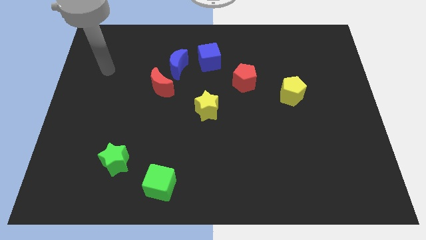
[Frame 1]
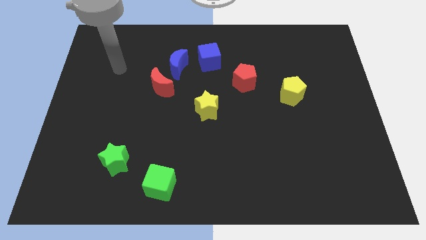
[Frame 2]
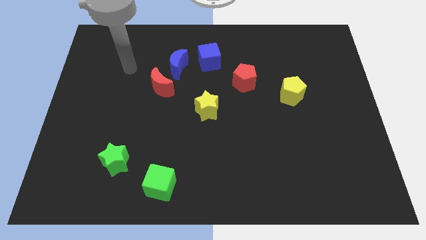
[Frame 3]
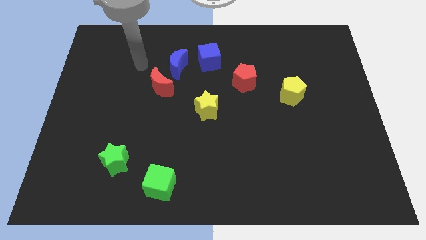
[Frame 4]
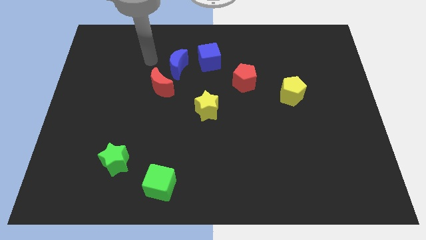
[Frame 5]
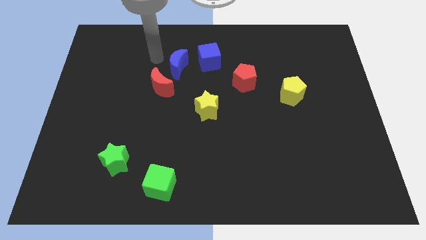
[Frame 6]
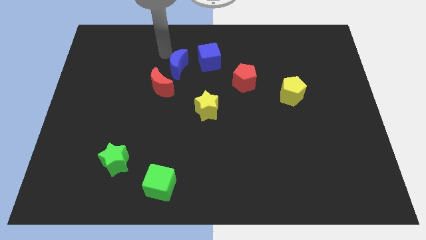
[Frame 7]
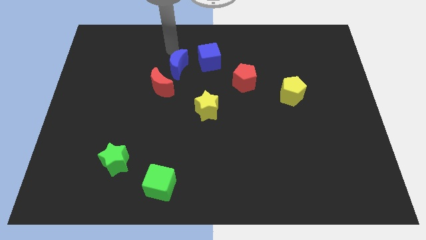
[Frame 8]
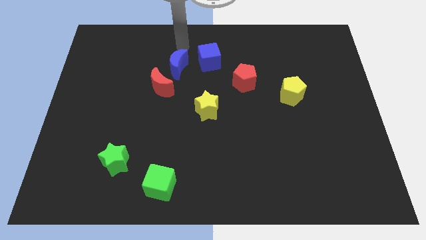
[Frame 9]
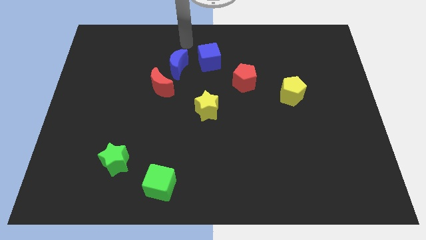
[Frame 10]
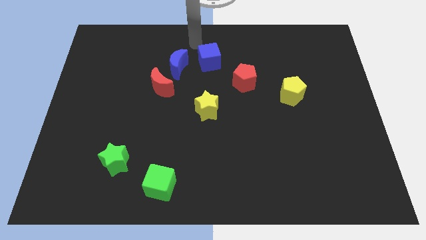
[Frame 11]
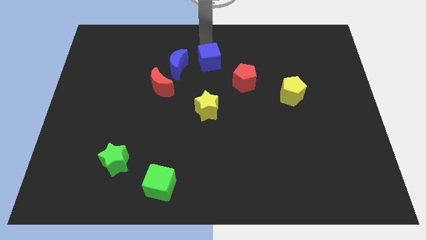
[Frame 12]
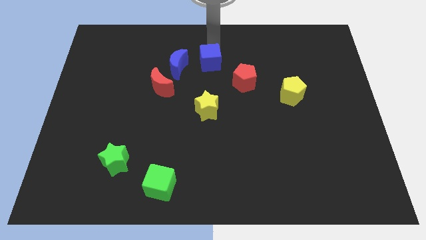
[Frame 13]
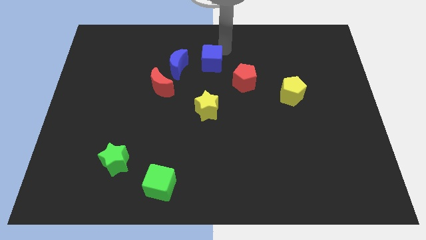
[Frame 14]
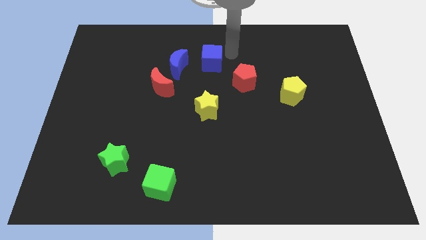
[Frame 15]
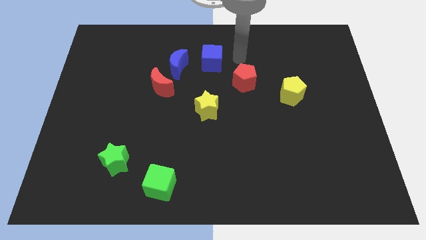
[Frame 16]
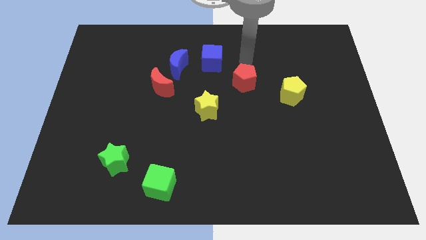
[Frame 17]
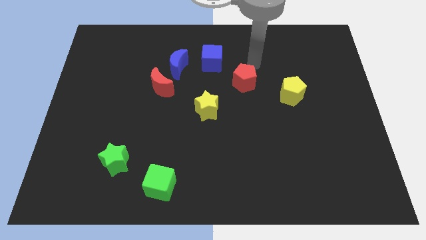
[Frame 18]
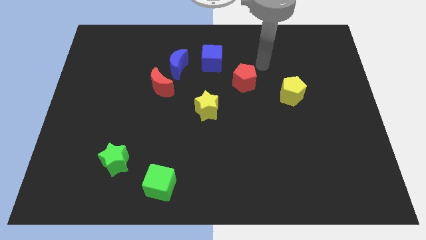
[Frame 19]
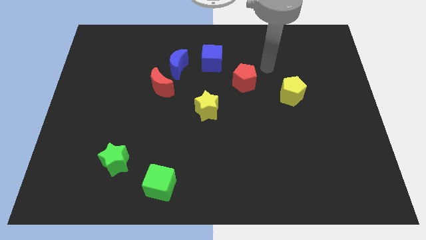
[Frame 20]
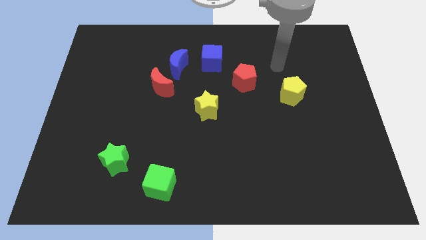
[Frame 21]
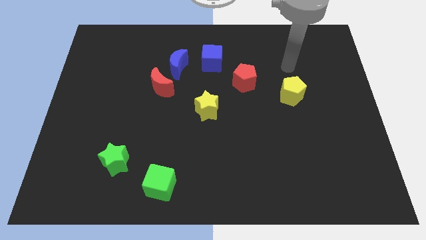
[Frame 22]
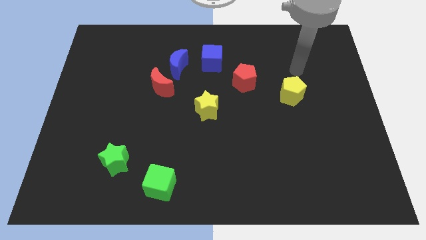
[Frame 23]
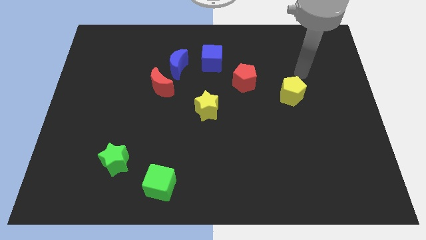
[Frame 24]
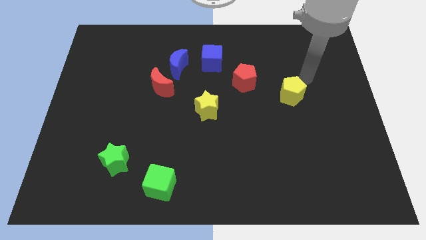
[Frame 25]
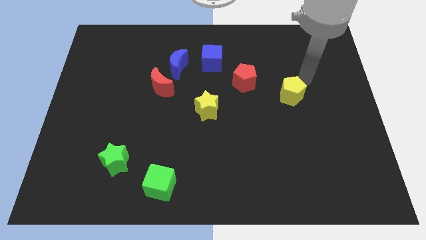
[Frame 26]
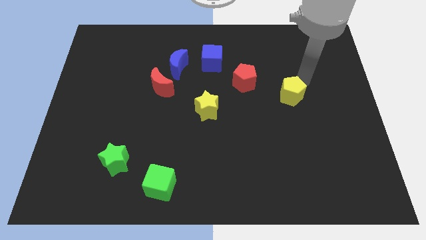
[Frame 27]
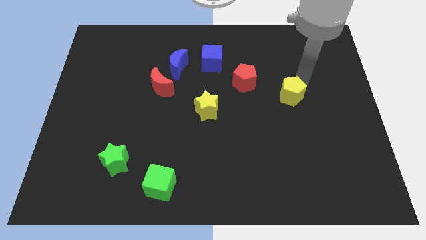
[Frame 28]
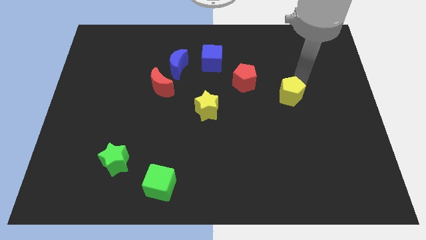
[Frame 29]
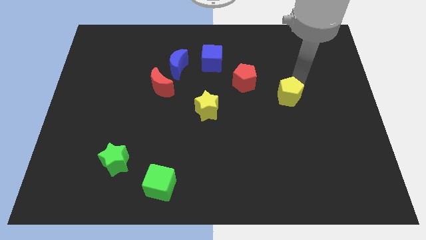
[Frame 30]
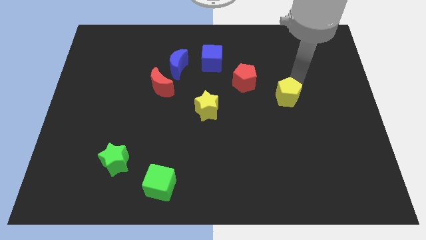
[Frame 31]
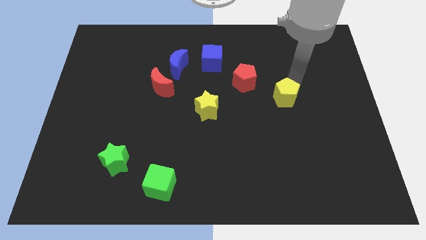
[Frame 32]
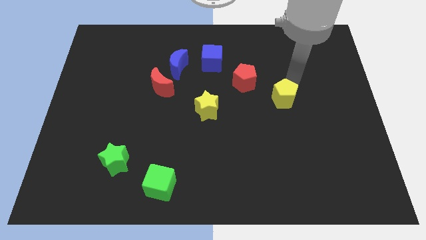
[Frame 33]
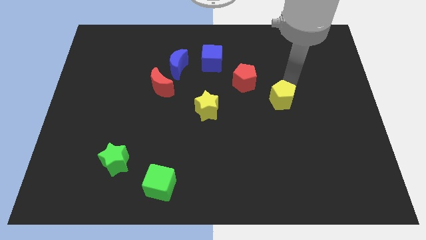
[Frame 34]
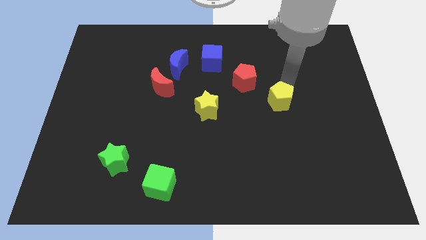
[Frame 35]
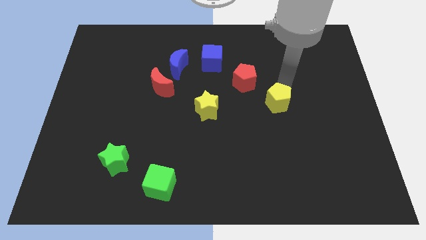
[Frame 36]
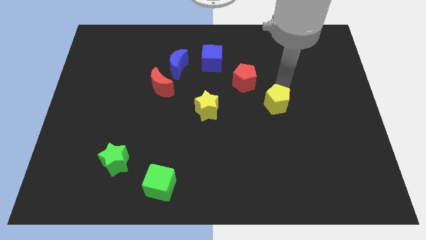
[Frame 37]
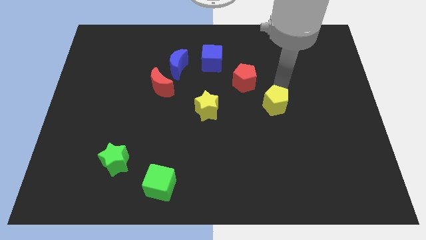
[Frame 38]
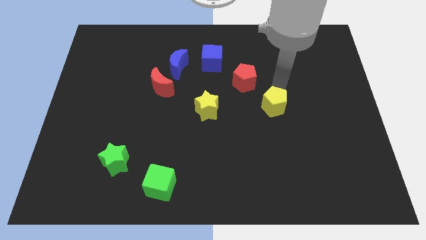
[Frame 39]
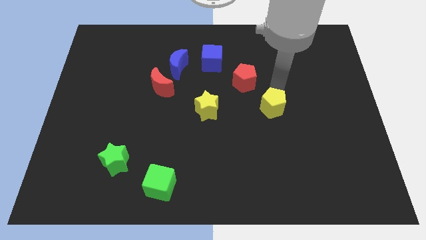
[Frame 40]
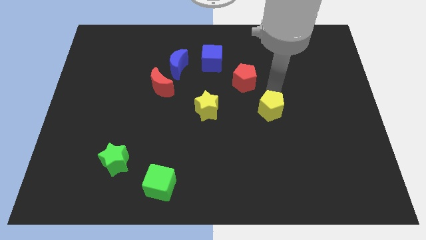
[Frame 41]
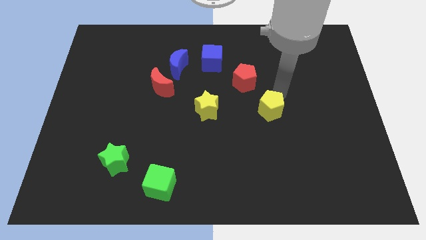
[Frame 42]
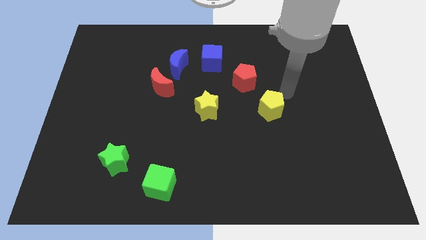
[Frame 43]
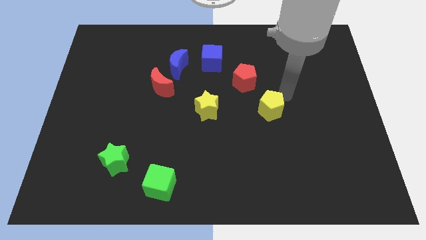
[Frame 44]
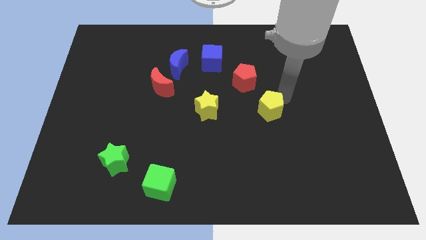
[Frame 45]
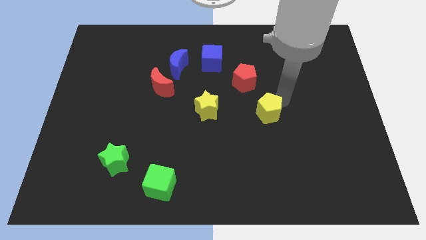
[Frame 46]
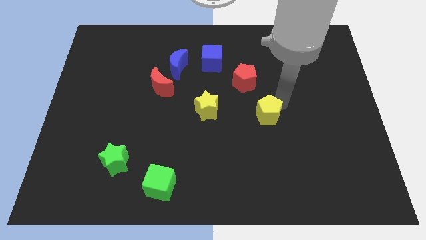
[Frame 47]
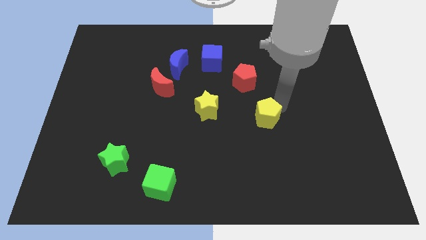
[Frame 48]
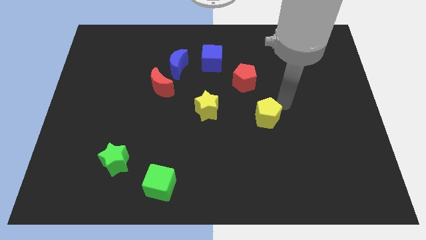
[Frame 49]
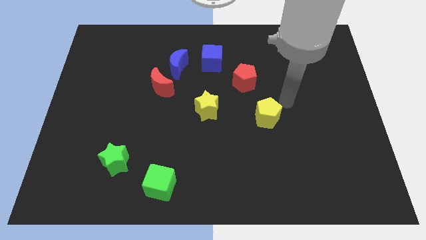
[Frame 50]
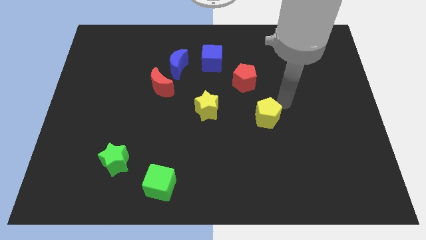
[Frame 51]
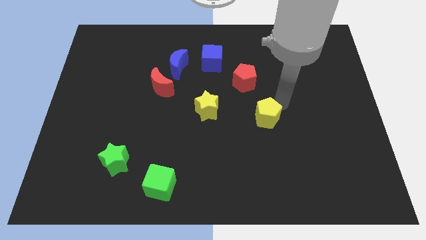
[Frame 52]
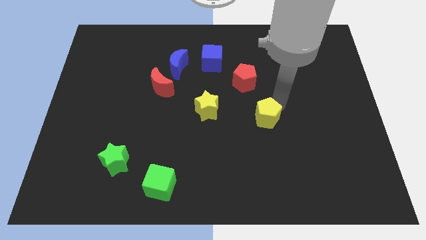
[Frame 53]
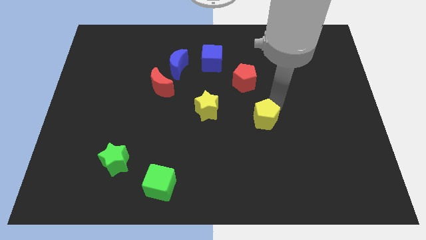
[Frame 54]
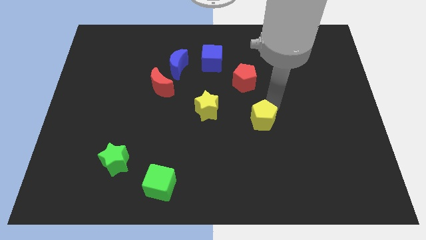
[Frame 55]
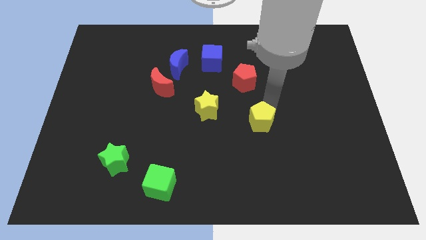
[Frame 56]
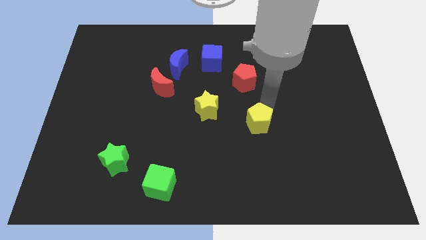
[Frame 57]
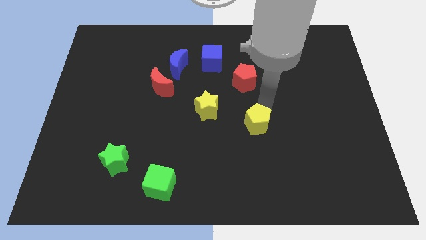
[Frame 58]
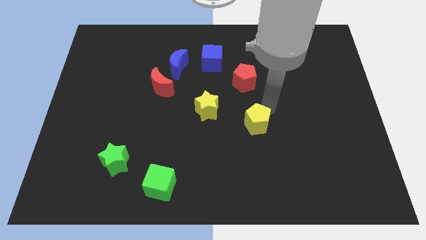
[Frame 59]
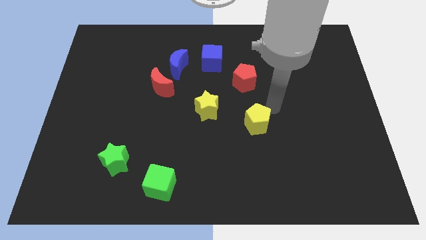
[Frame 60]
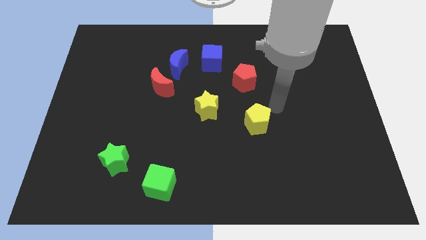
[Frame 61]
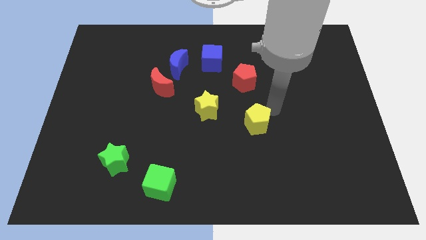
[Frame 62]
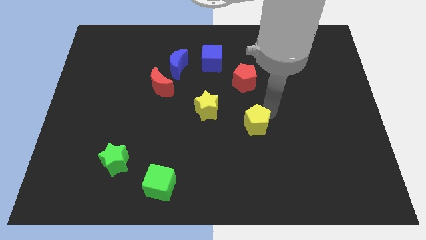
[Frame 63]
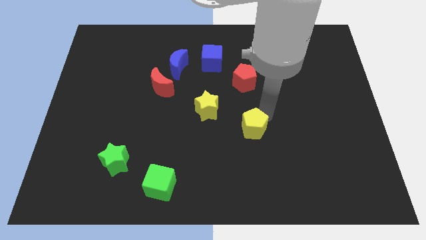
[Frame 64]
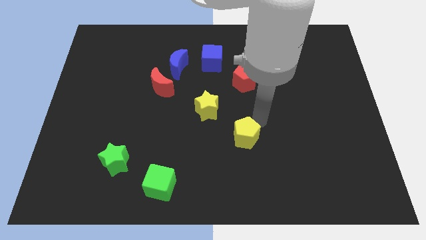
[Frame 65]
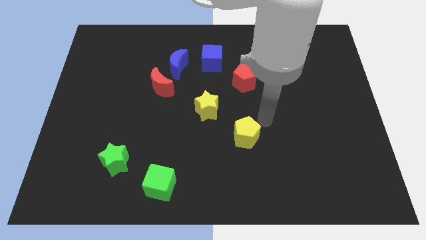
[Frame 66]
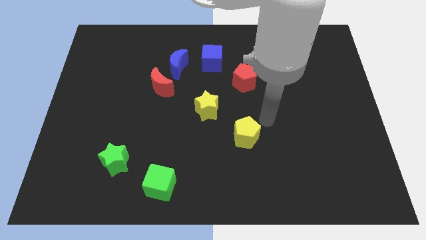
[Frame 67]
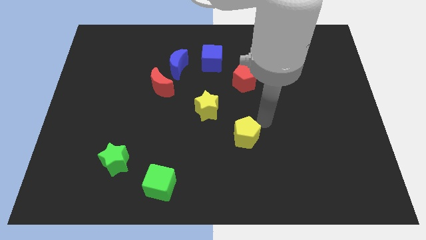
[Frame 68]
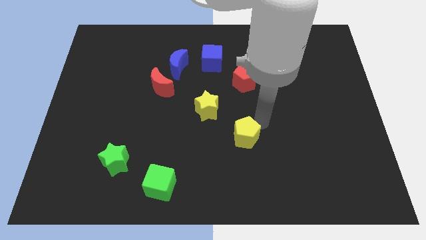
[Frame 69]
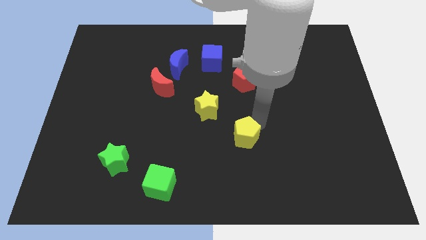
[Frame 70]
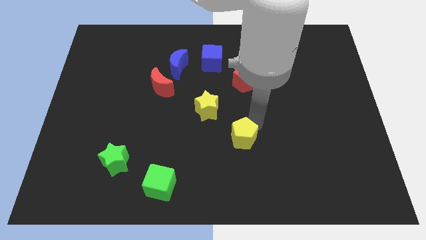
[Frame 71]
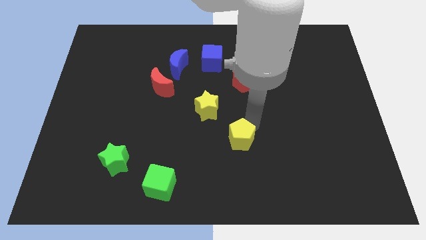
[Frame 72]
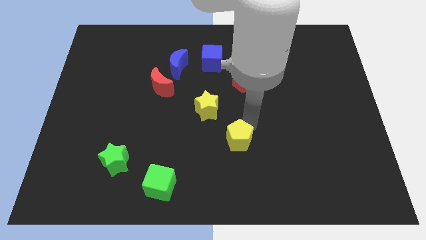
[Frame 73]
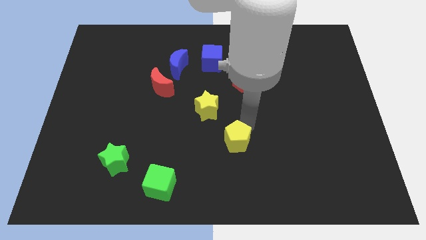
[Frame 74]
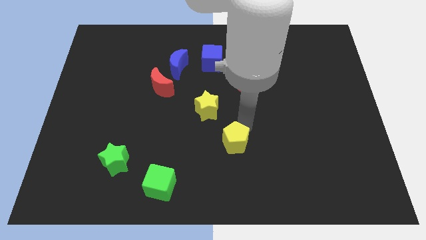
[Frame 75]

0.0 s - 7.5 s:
push the yellow pentagon down and left diagonally

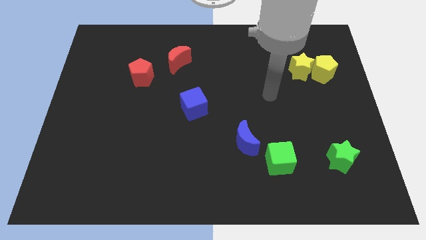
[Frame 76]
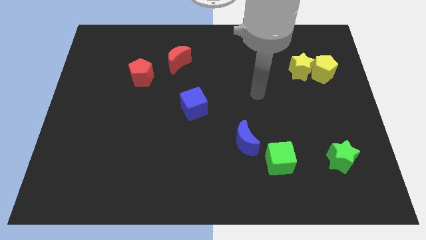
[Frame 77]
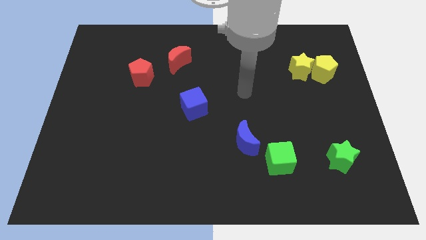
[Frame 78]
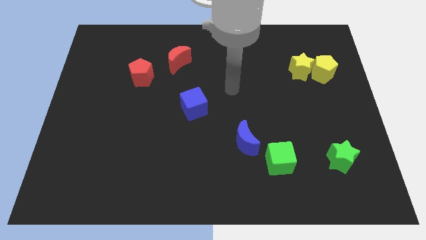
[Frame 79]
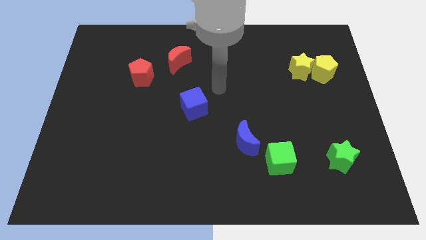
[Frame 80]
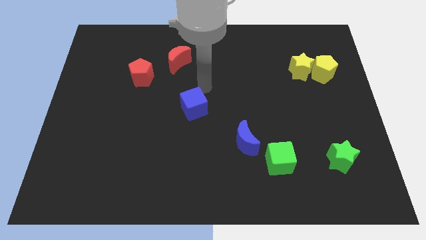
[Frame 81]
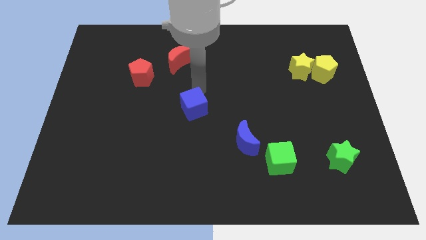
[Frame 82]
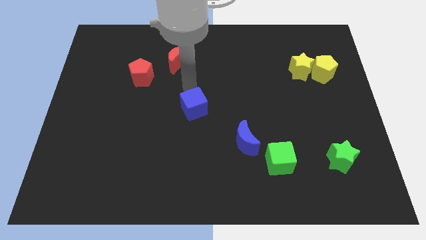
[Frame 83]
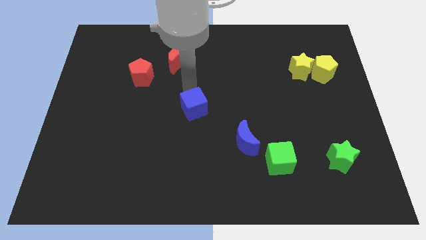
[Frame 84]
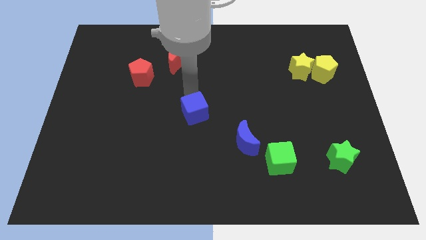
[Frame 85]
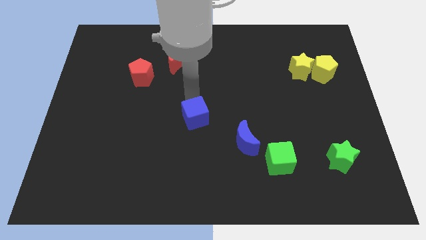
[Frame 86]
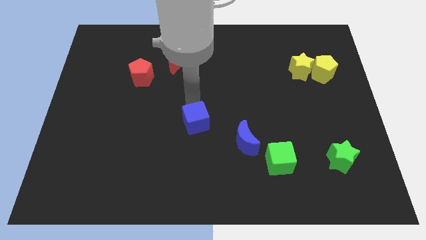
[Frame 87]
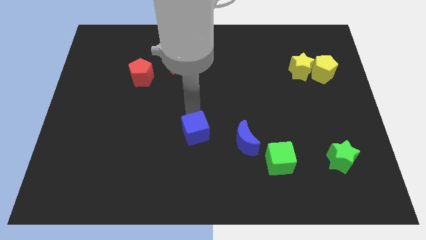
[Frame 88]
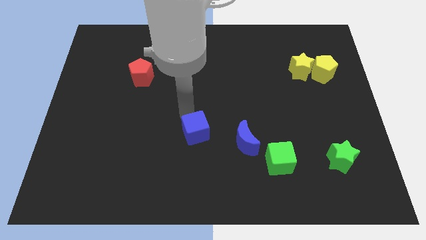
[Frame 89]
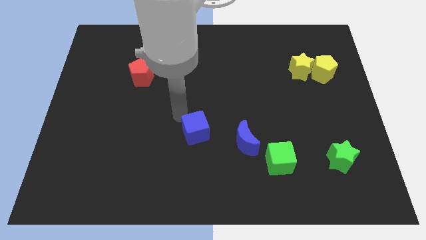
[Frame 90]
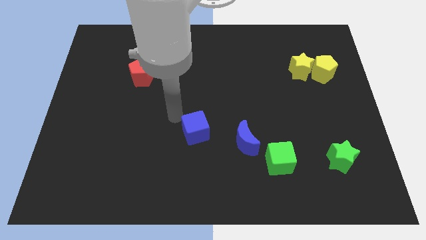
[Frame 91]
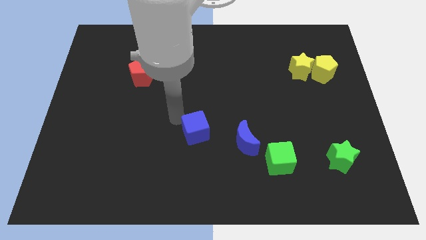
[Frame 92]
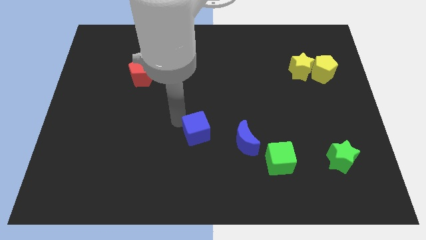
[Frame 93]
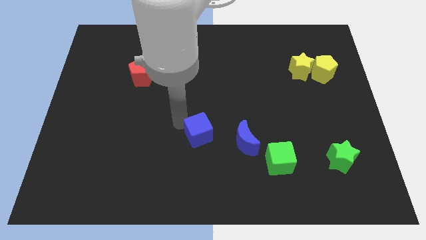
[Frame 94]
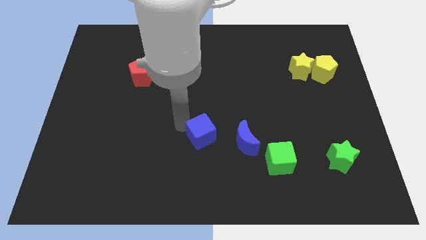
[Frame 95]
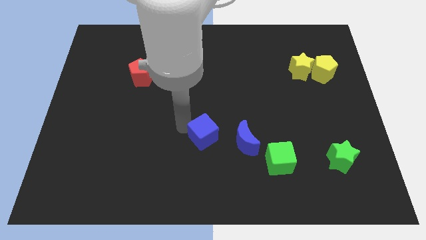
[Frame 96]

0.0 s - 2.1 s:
slightly move the blue cube down and right diagonally
